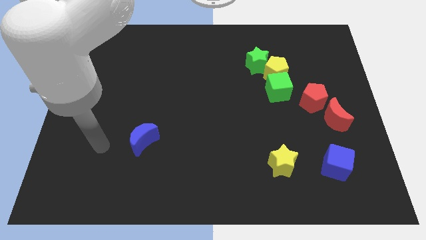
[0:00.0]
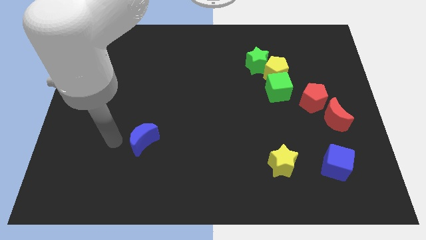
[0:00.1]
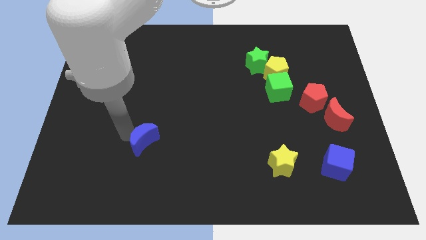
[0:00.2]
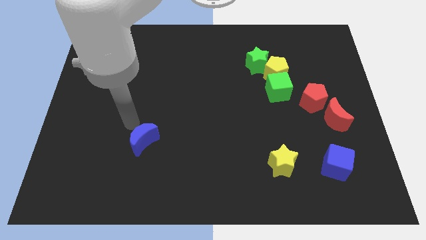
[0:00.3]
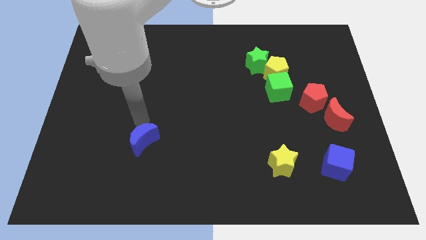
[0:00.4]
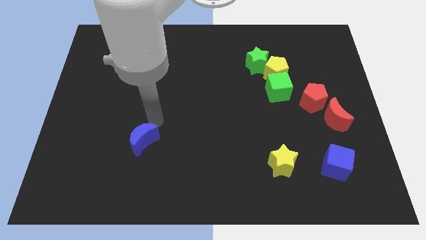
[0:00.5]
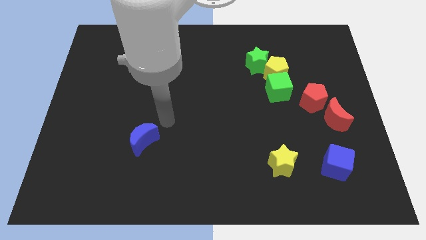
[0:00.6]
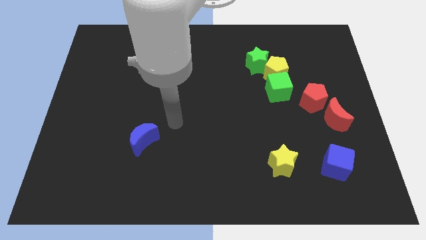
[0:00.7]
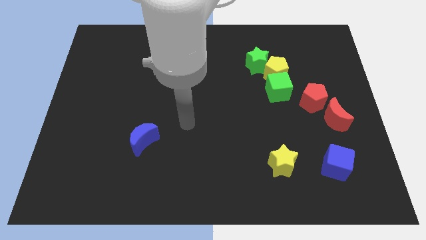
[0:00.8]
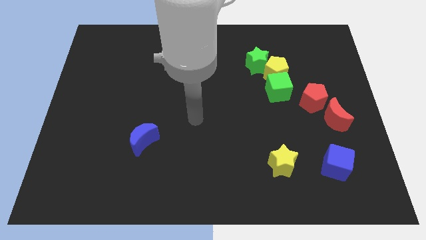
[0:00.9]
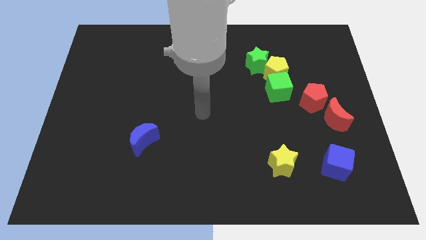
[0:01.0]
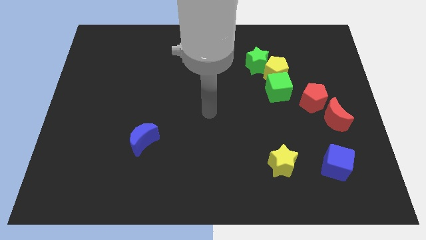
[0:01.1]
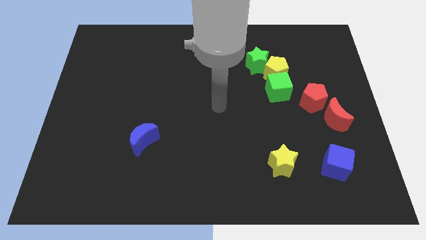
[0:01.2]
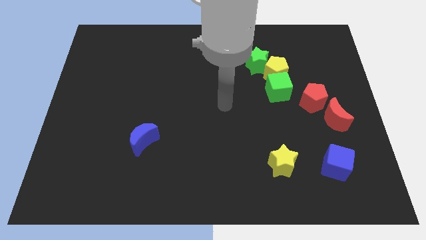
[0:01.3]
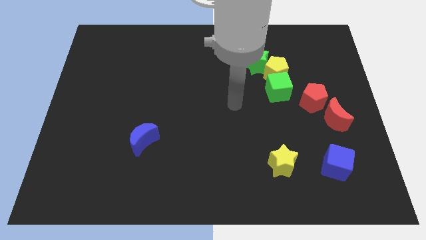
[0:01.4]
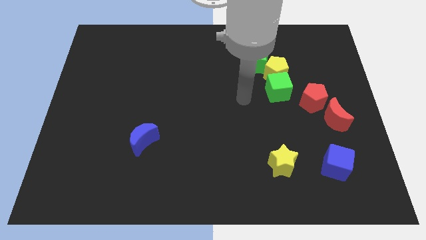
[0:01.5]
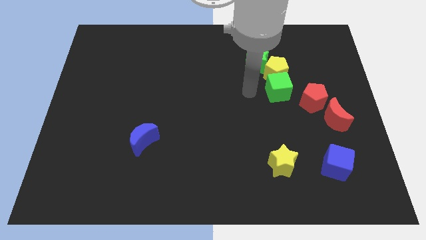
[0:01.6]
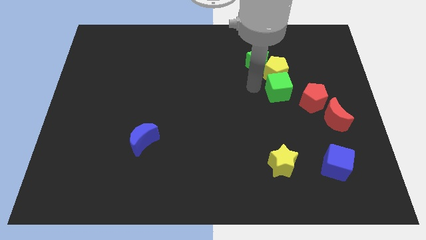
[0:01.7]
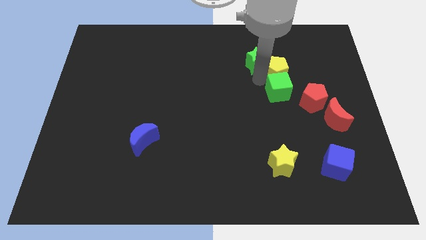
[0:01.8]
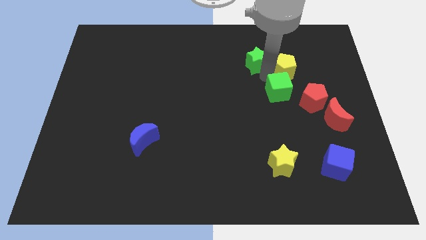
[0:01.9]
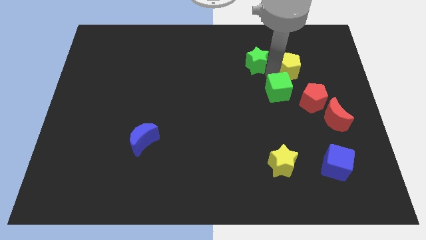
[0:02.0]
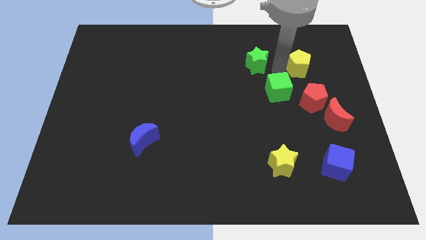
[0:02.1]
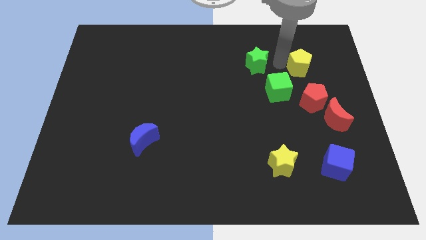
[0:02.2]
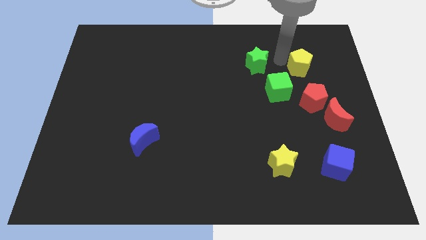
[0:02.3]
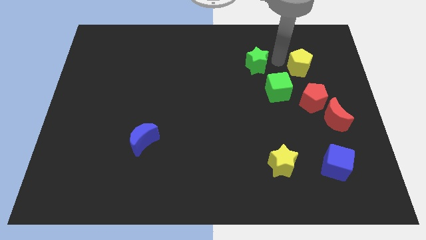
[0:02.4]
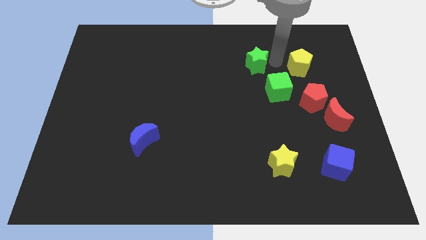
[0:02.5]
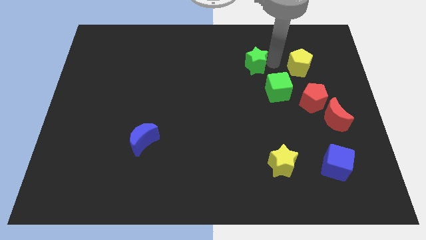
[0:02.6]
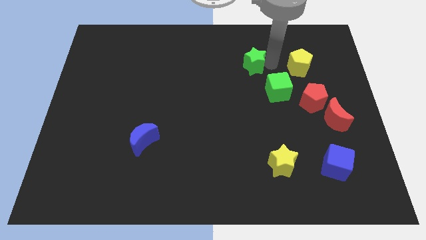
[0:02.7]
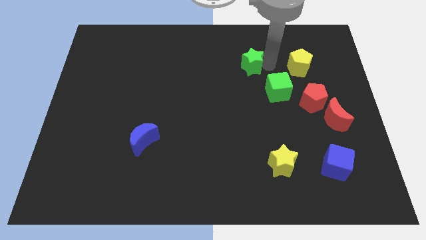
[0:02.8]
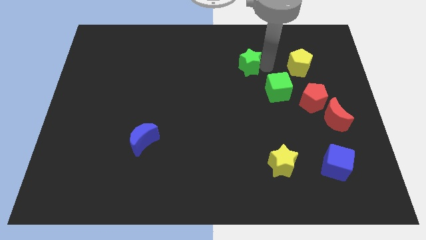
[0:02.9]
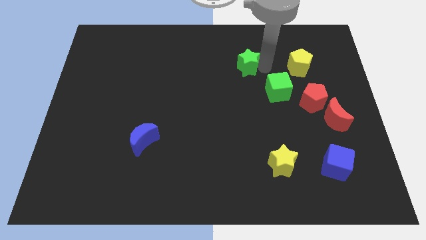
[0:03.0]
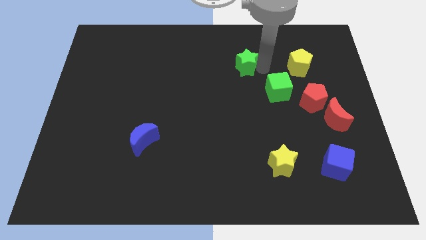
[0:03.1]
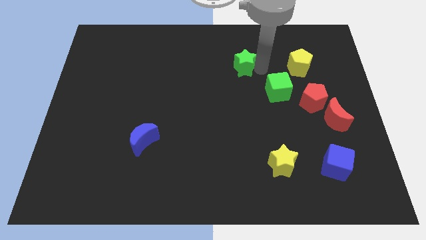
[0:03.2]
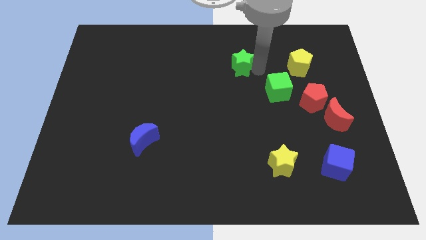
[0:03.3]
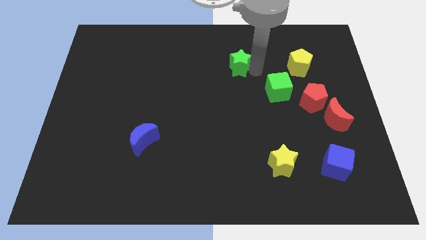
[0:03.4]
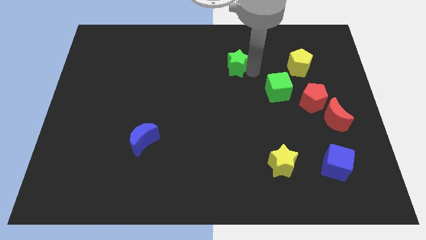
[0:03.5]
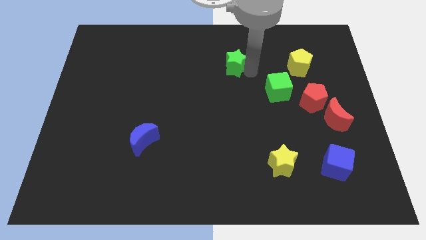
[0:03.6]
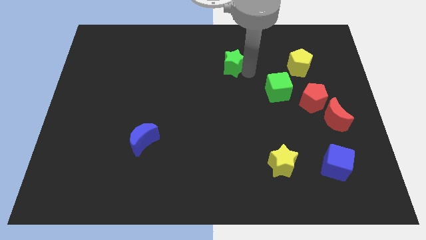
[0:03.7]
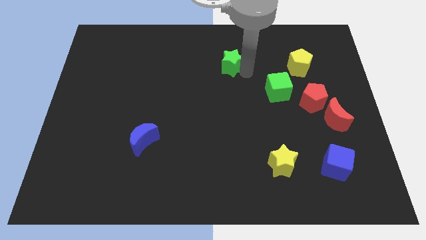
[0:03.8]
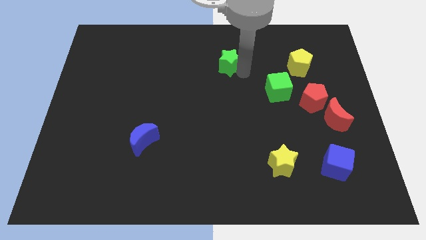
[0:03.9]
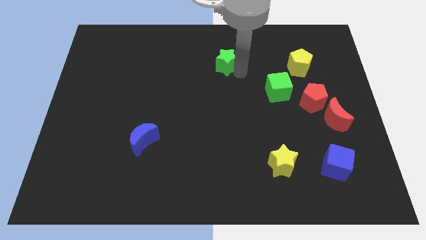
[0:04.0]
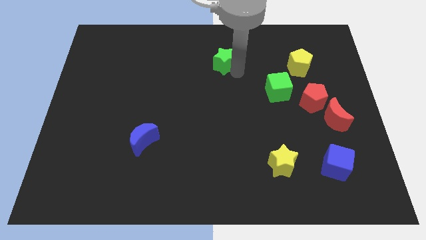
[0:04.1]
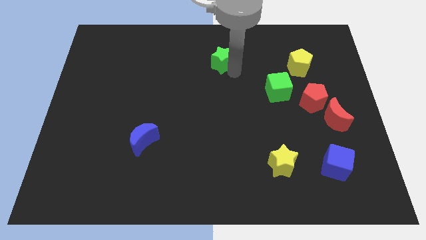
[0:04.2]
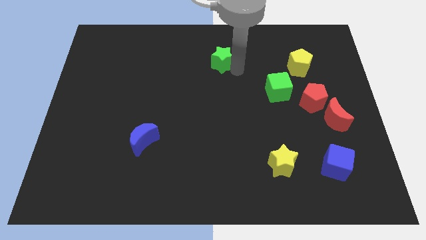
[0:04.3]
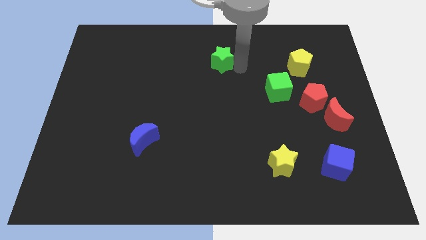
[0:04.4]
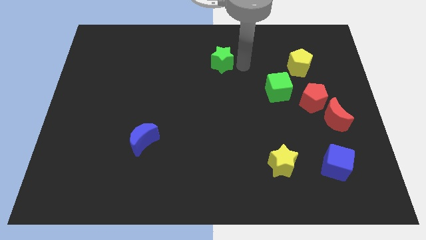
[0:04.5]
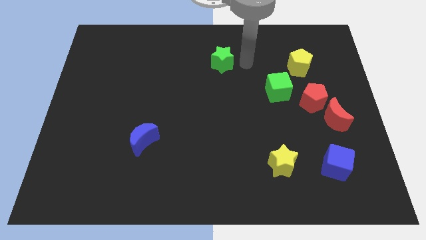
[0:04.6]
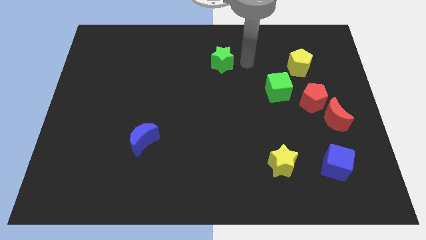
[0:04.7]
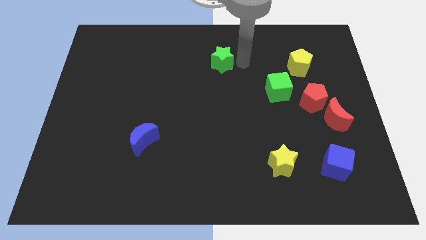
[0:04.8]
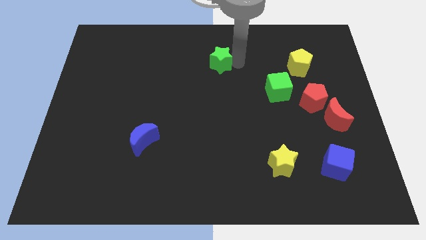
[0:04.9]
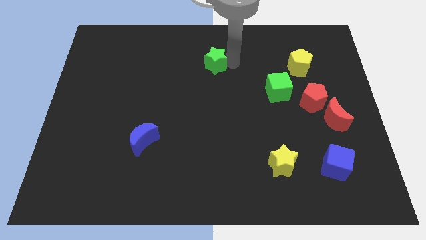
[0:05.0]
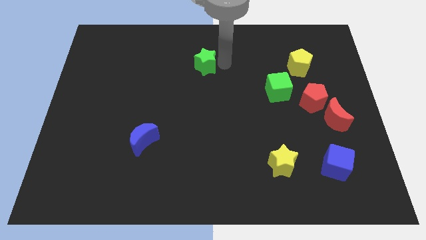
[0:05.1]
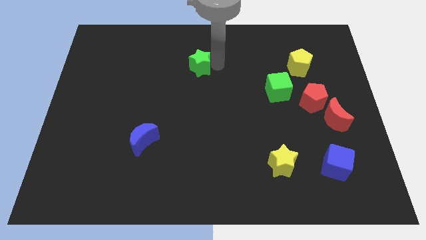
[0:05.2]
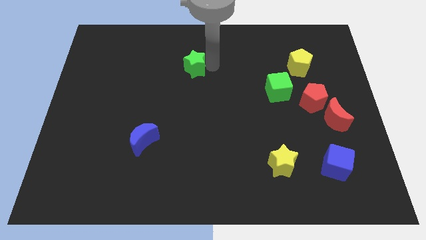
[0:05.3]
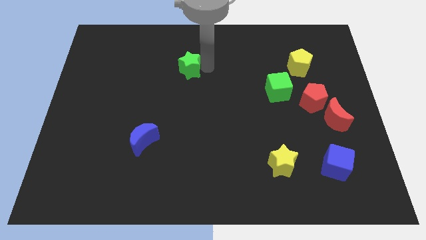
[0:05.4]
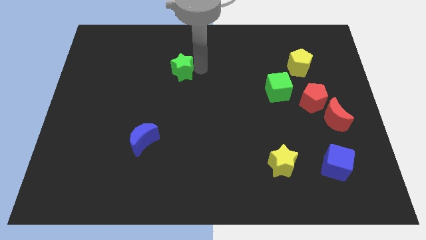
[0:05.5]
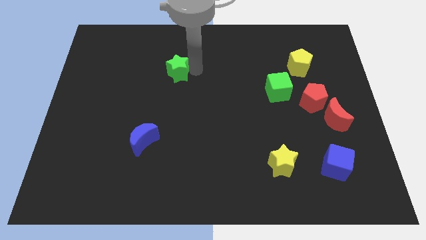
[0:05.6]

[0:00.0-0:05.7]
move the green star left

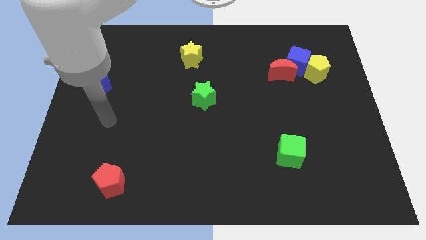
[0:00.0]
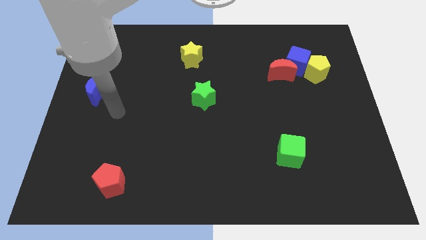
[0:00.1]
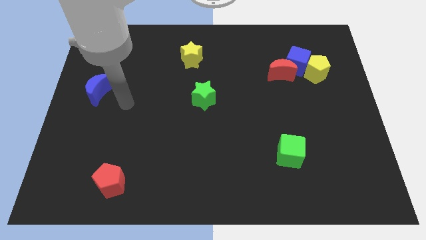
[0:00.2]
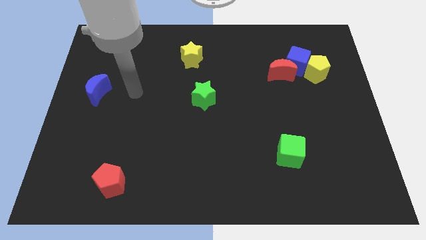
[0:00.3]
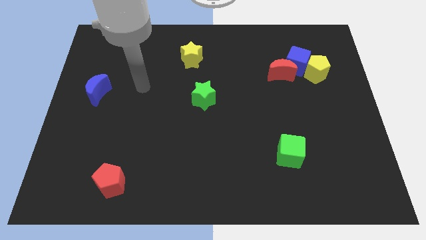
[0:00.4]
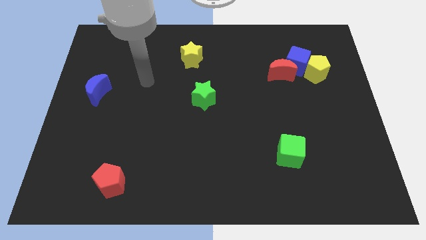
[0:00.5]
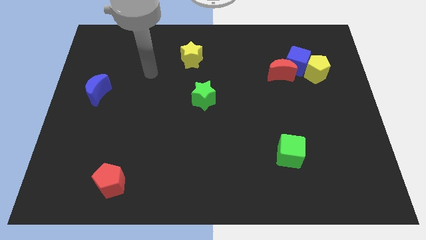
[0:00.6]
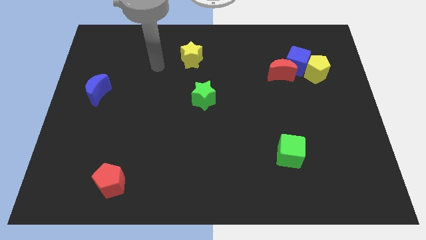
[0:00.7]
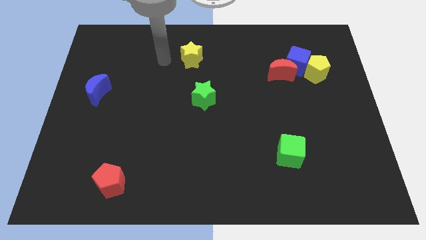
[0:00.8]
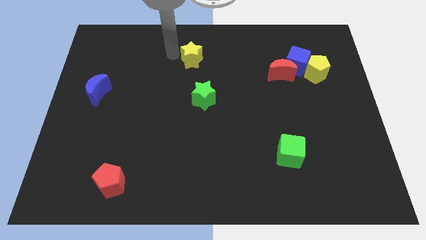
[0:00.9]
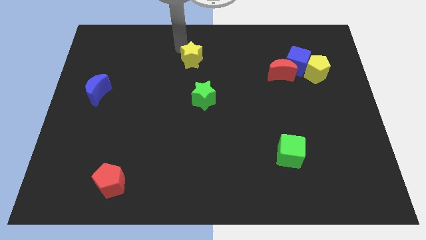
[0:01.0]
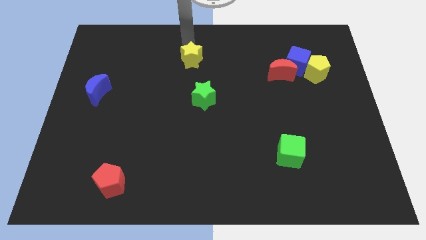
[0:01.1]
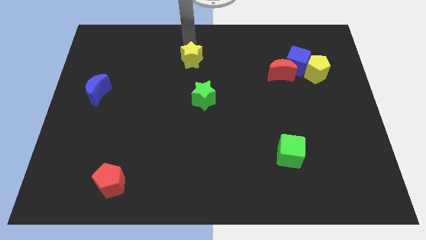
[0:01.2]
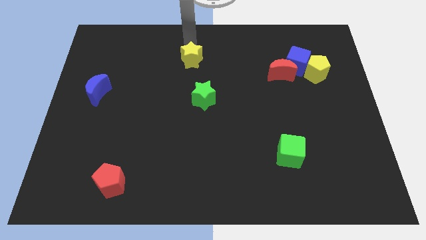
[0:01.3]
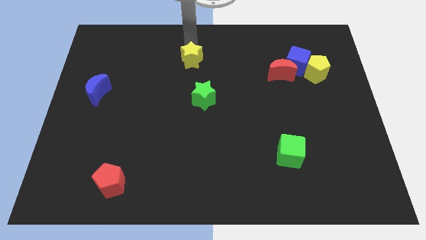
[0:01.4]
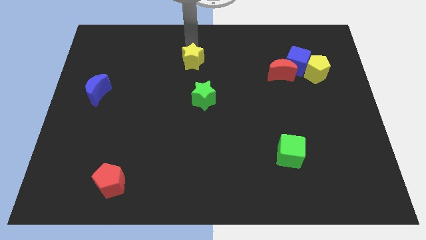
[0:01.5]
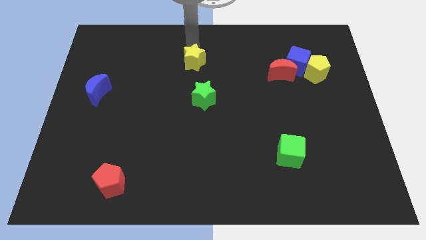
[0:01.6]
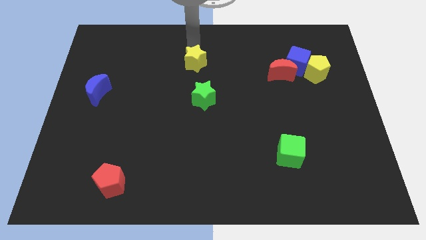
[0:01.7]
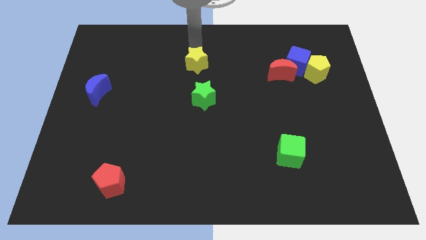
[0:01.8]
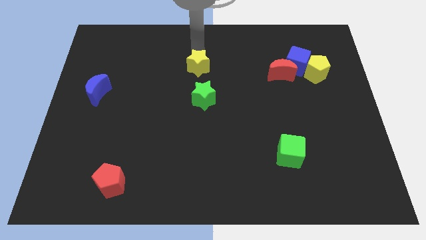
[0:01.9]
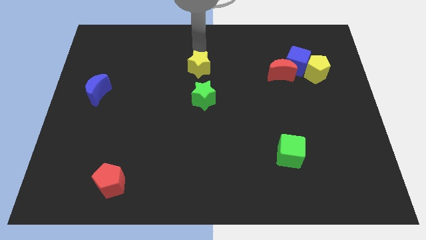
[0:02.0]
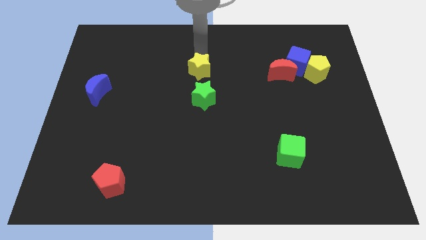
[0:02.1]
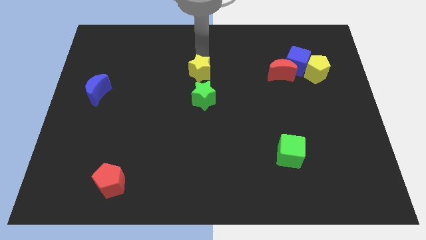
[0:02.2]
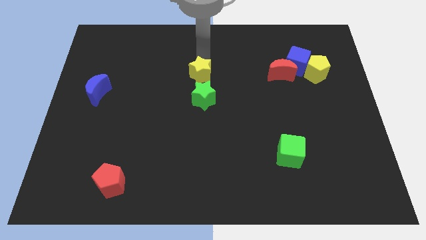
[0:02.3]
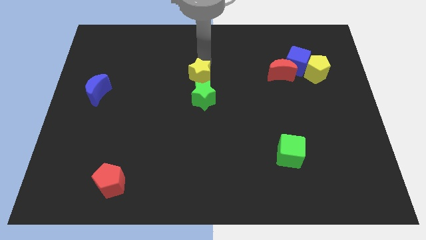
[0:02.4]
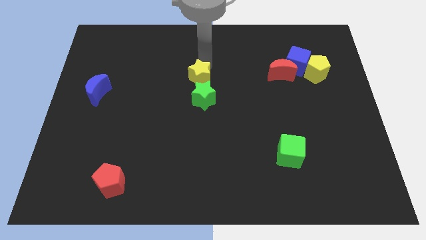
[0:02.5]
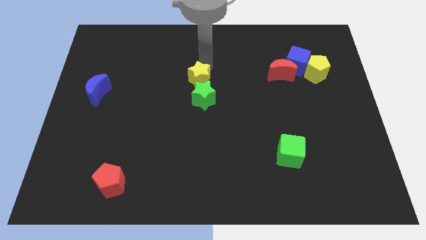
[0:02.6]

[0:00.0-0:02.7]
slightly slide the yellow star down
